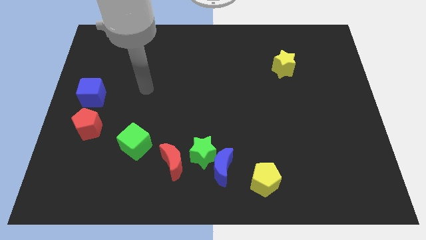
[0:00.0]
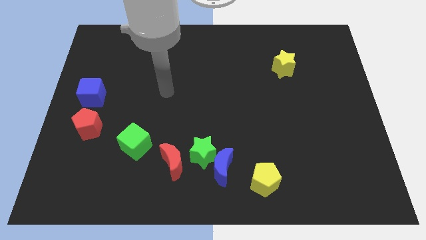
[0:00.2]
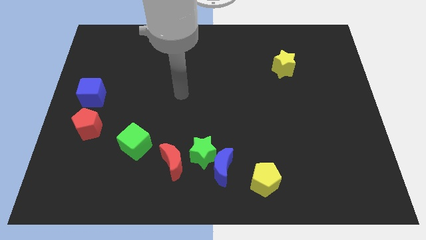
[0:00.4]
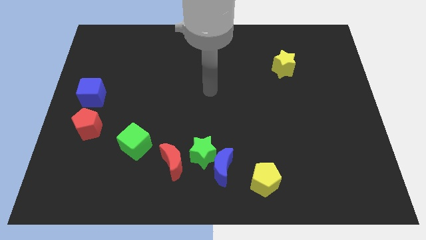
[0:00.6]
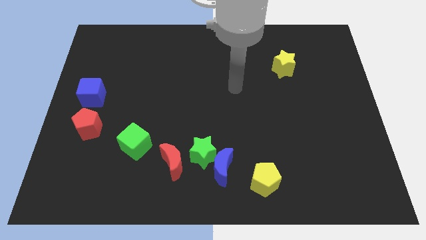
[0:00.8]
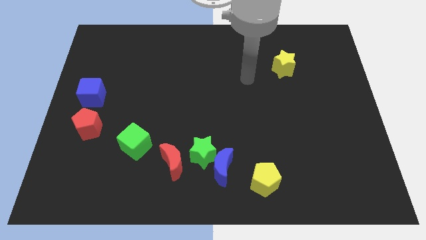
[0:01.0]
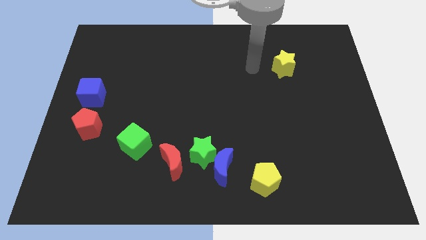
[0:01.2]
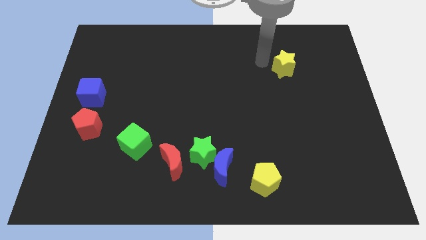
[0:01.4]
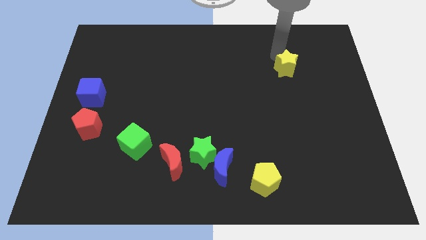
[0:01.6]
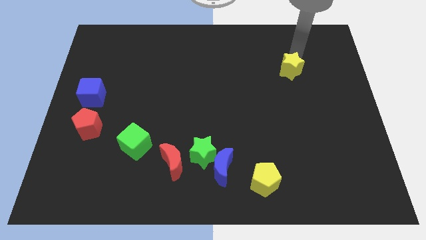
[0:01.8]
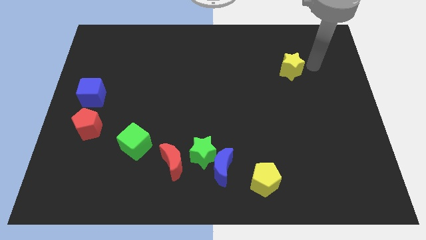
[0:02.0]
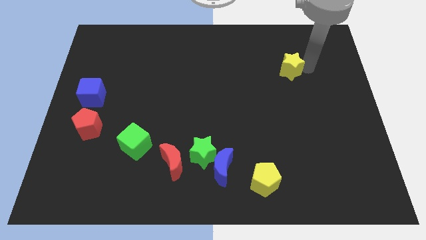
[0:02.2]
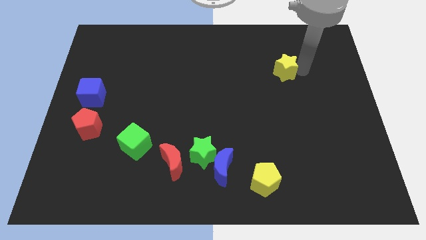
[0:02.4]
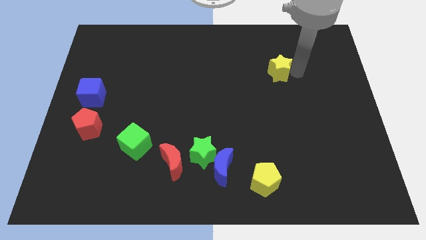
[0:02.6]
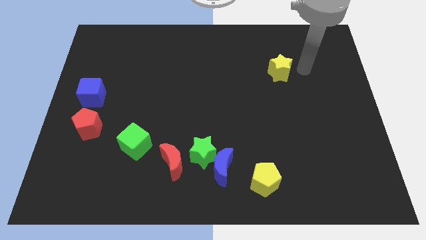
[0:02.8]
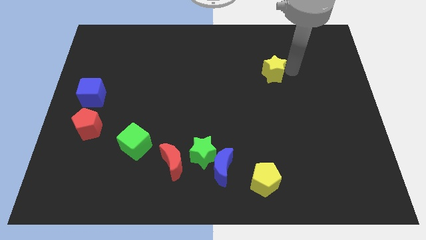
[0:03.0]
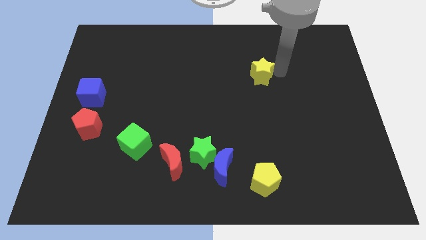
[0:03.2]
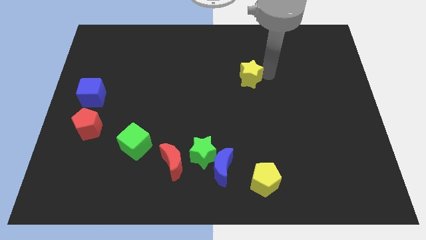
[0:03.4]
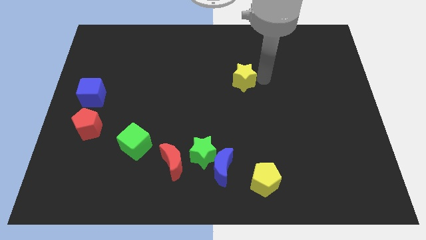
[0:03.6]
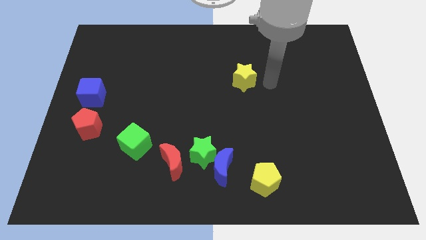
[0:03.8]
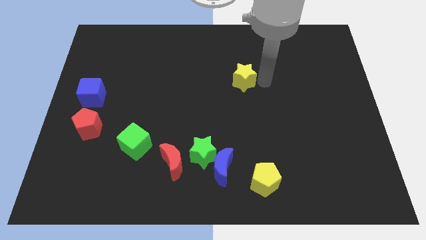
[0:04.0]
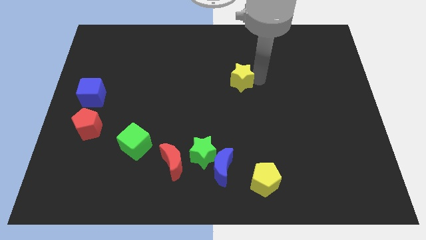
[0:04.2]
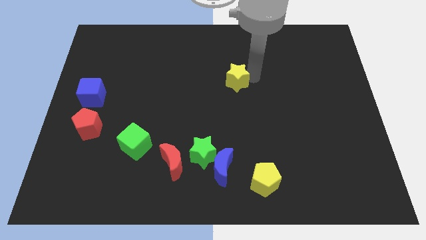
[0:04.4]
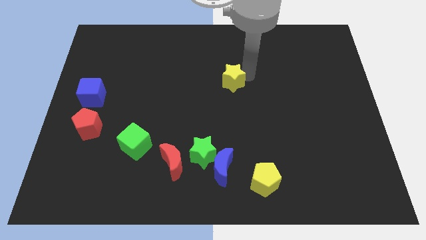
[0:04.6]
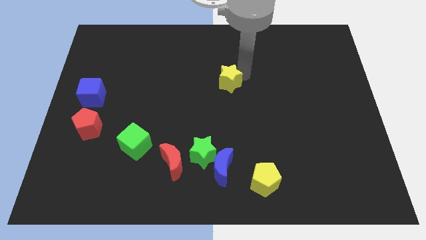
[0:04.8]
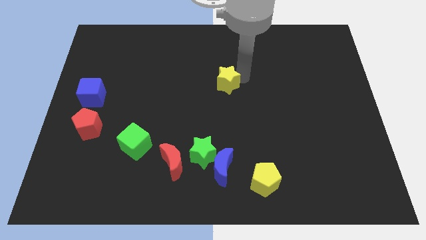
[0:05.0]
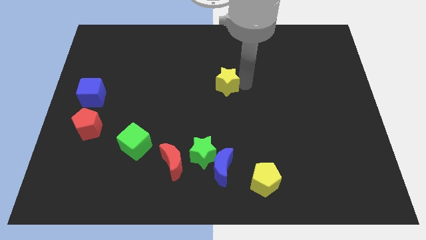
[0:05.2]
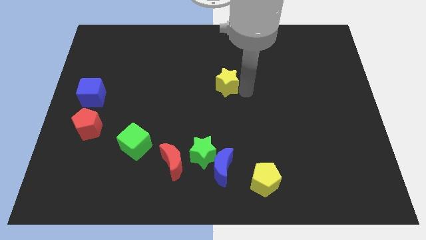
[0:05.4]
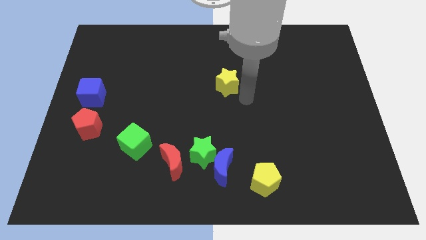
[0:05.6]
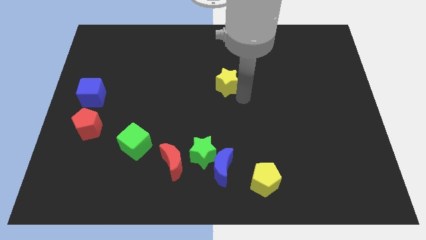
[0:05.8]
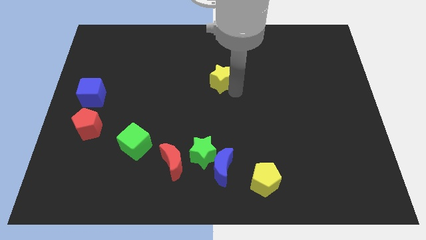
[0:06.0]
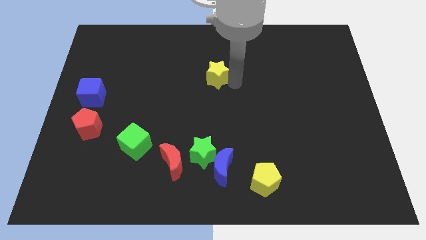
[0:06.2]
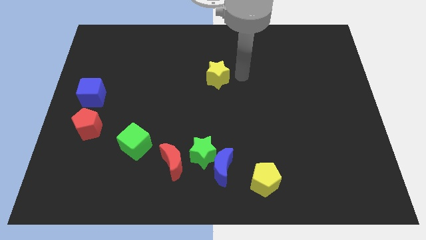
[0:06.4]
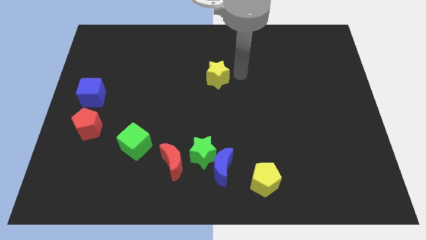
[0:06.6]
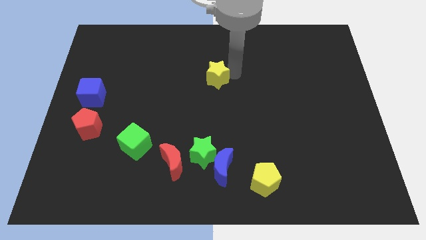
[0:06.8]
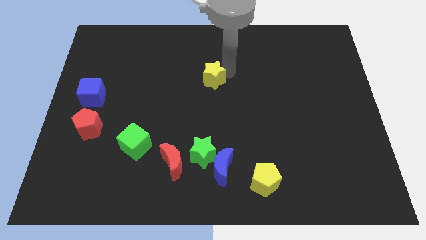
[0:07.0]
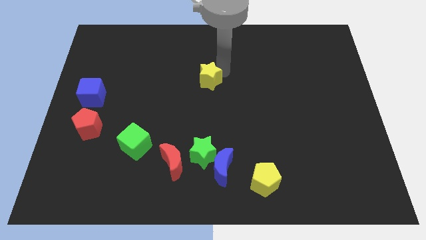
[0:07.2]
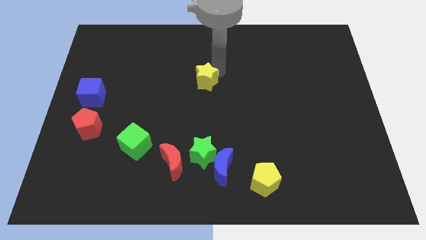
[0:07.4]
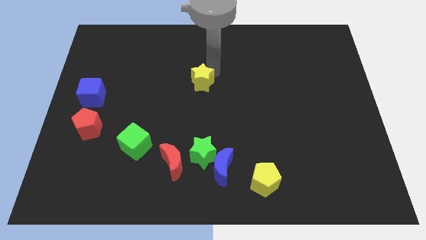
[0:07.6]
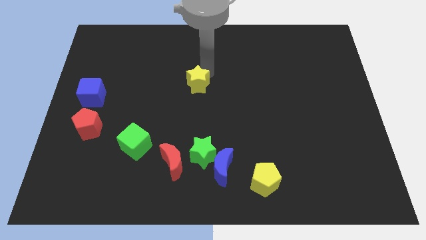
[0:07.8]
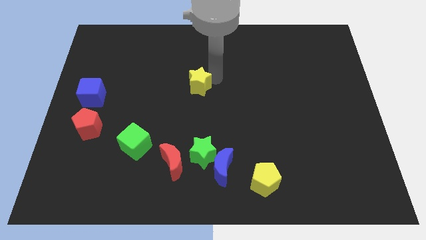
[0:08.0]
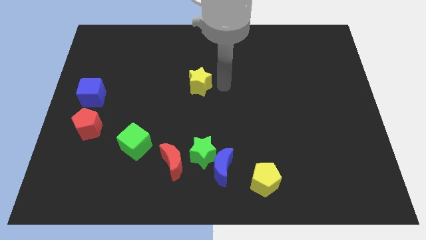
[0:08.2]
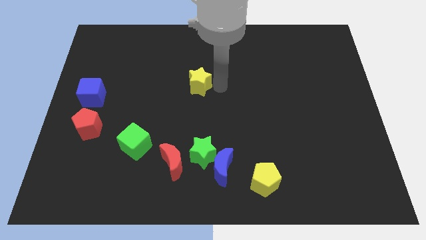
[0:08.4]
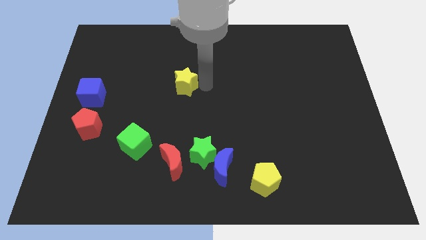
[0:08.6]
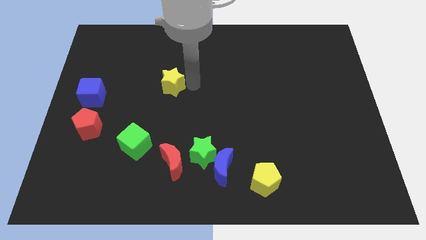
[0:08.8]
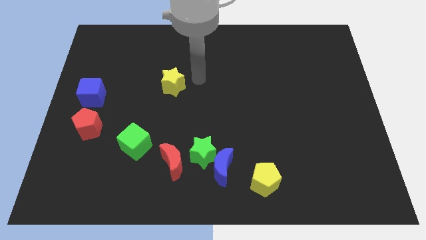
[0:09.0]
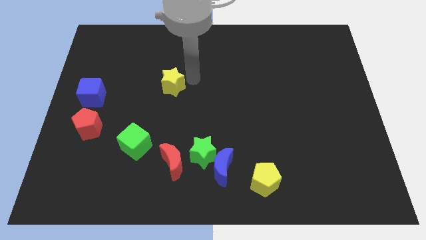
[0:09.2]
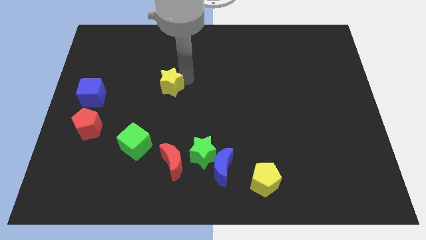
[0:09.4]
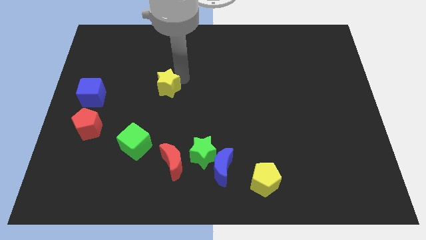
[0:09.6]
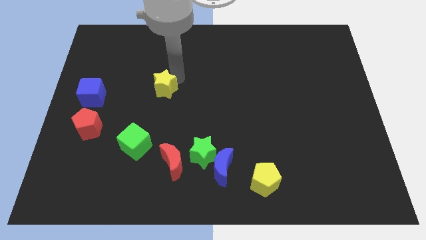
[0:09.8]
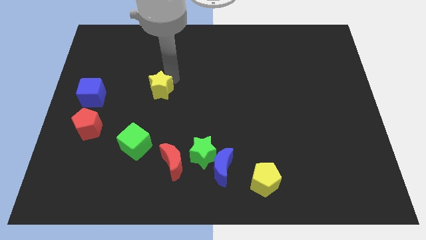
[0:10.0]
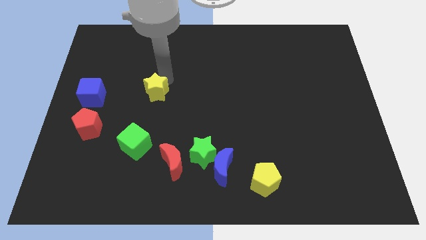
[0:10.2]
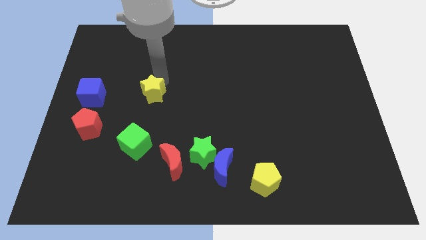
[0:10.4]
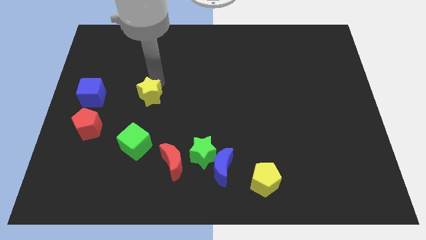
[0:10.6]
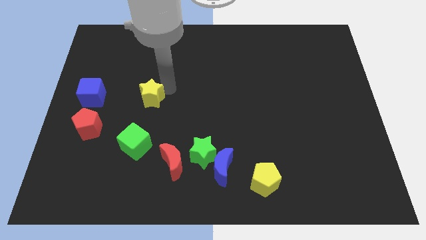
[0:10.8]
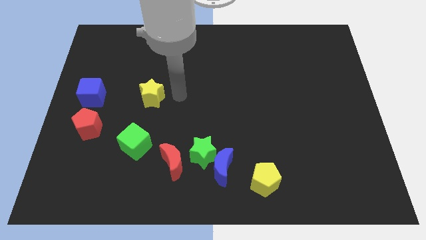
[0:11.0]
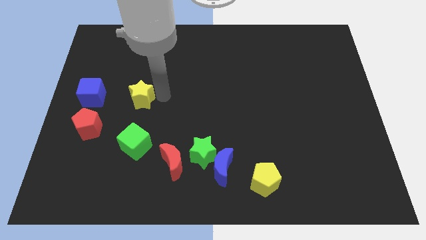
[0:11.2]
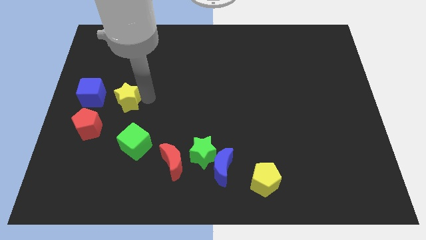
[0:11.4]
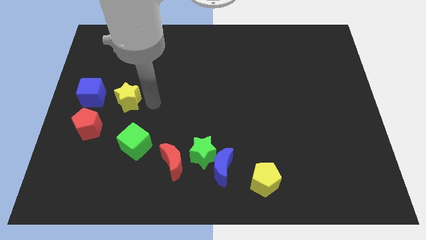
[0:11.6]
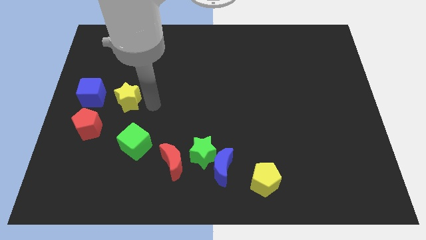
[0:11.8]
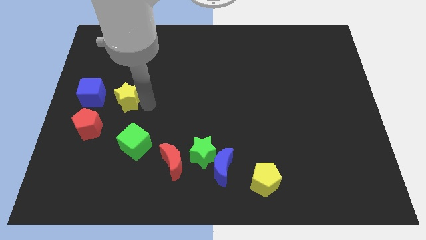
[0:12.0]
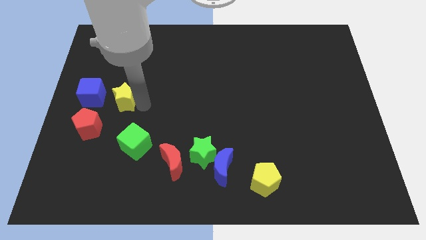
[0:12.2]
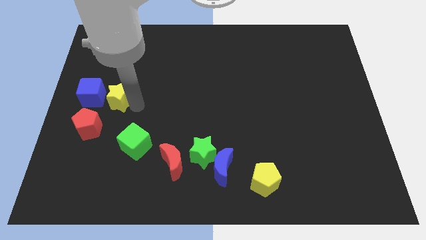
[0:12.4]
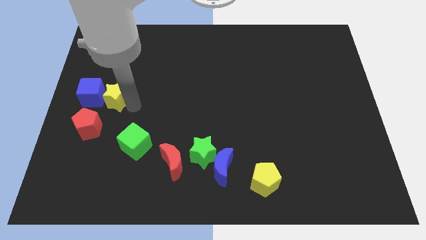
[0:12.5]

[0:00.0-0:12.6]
push the yellow star next to the blue cube

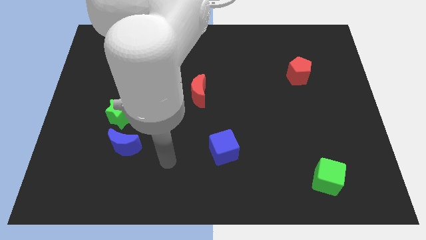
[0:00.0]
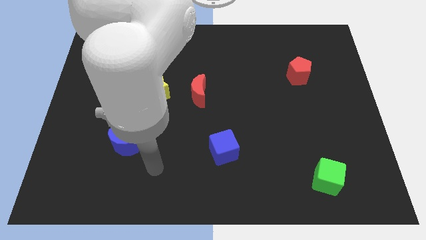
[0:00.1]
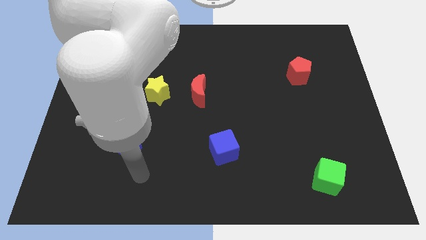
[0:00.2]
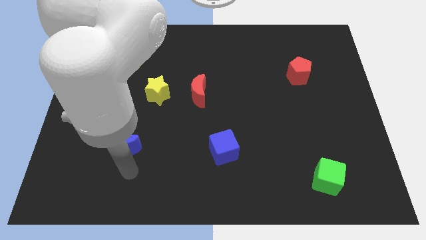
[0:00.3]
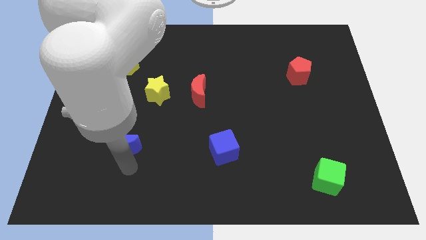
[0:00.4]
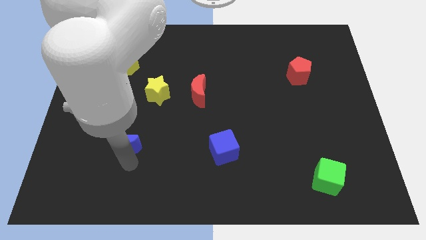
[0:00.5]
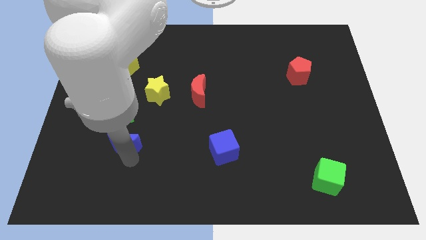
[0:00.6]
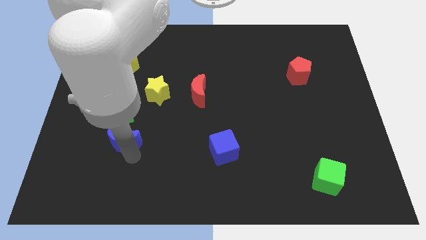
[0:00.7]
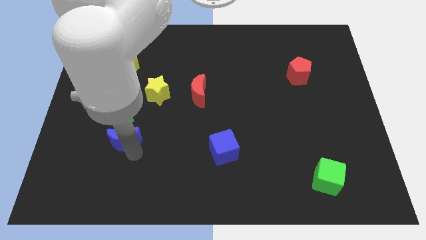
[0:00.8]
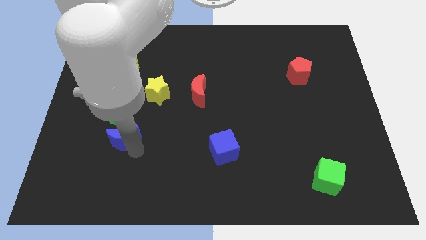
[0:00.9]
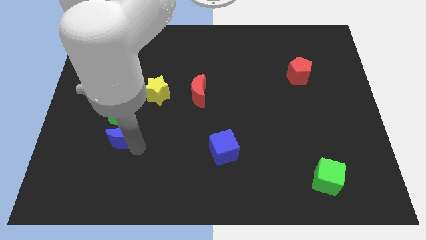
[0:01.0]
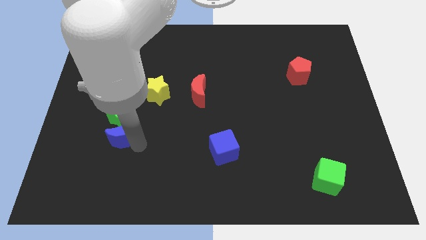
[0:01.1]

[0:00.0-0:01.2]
push the blue moon towards the green star

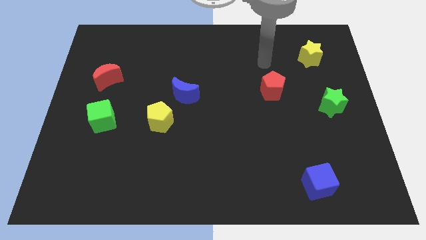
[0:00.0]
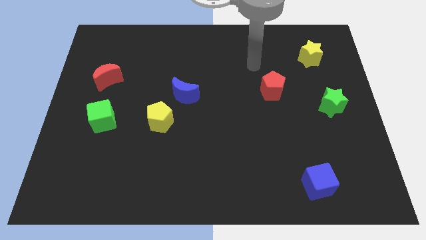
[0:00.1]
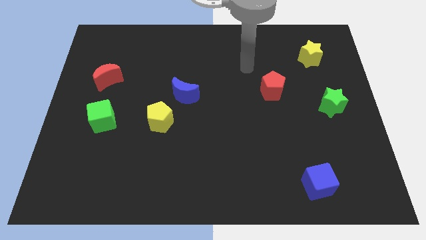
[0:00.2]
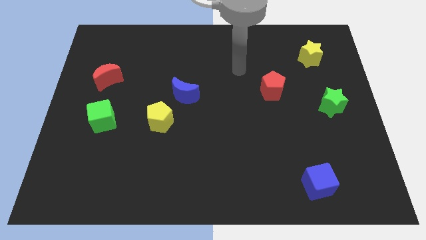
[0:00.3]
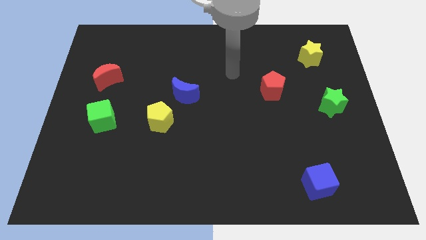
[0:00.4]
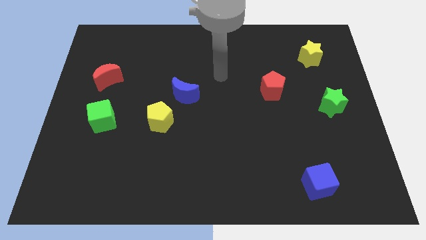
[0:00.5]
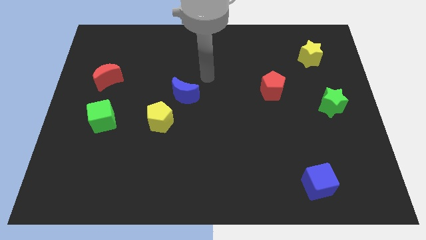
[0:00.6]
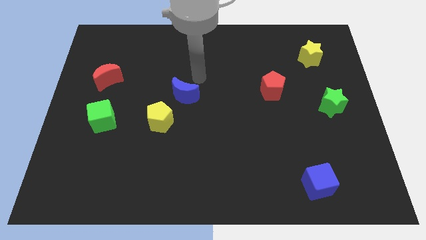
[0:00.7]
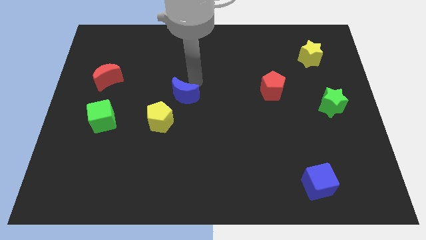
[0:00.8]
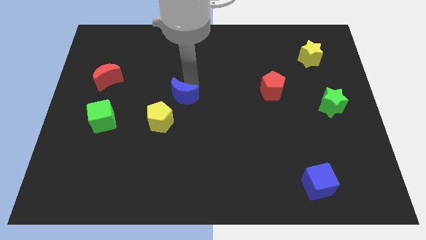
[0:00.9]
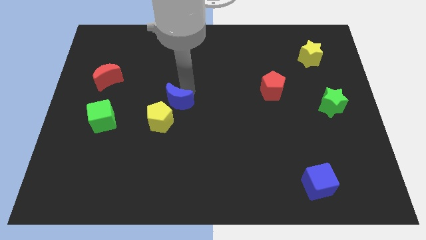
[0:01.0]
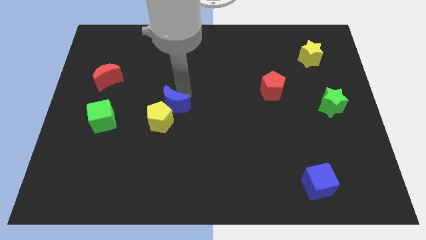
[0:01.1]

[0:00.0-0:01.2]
slide the blue moon close to the yellow pentagon
